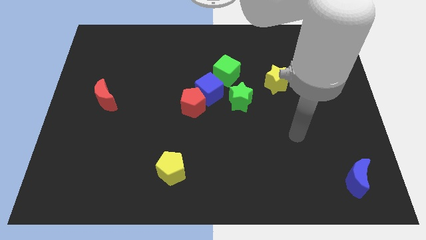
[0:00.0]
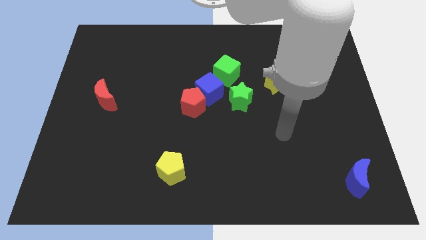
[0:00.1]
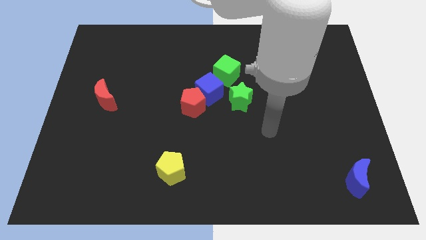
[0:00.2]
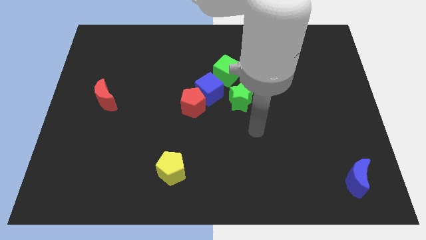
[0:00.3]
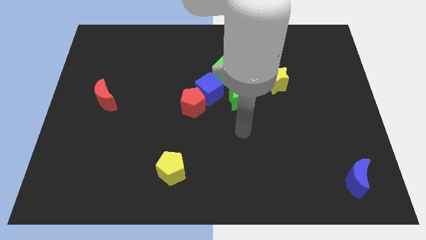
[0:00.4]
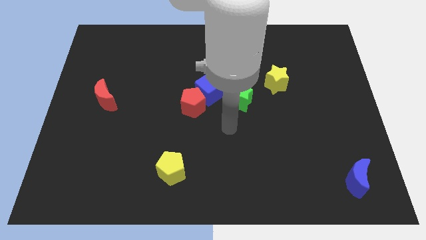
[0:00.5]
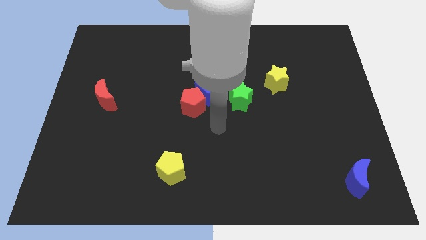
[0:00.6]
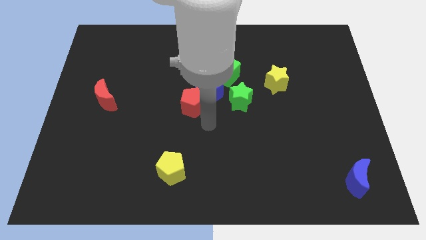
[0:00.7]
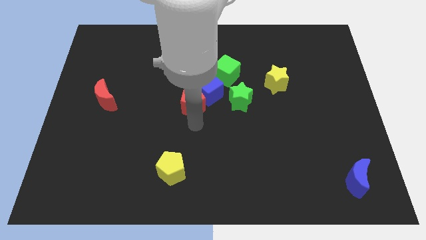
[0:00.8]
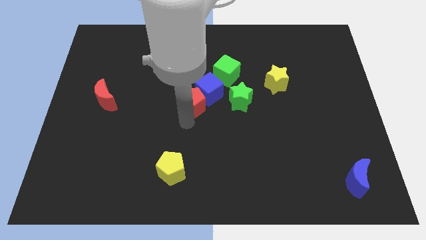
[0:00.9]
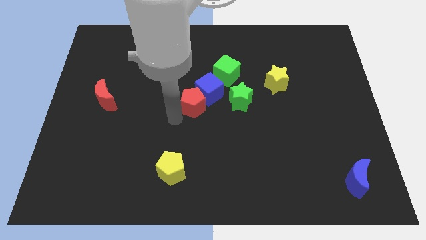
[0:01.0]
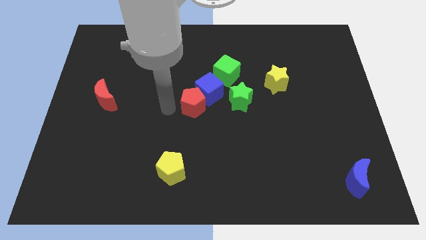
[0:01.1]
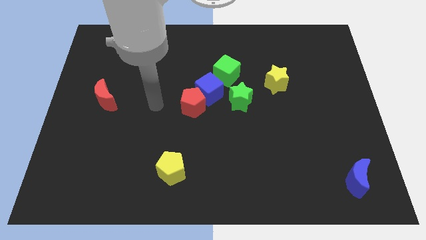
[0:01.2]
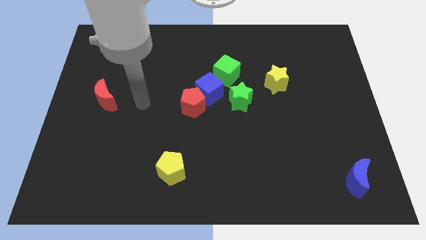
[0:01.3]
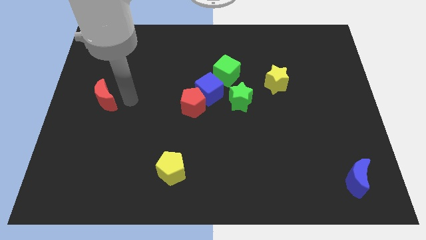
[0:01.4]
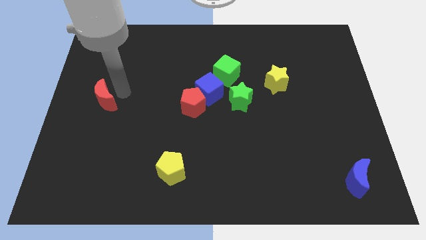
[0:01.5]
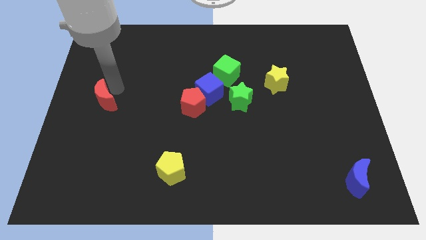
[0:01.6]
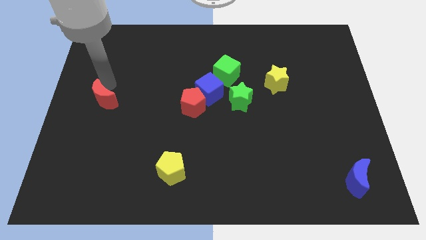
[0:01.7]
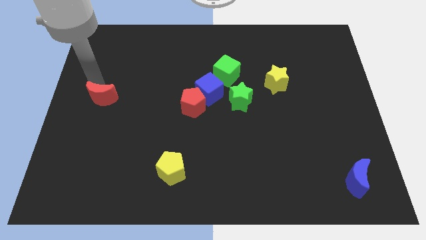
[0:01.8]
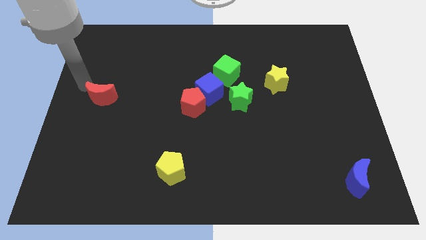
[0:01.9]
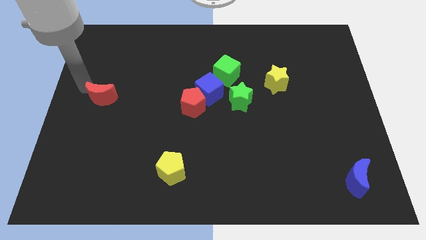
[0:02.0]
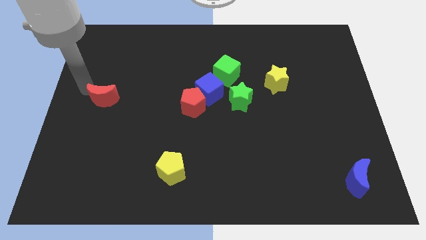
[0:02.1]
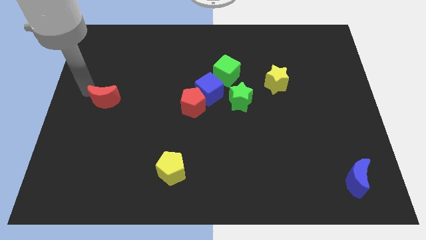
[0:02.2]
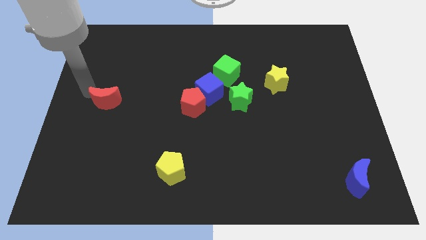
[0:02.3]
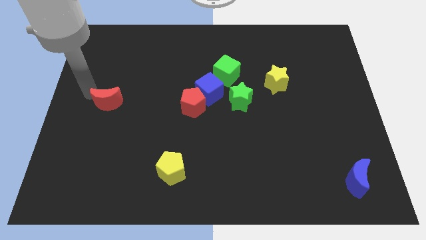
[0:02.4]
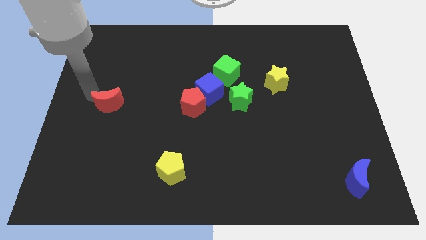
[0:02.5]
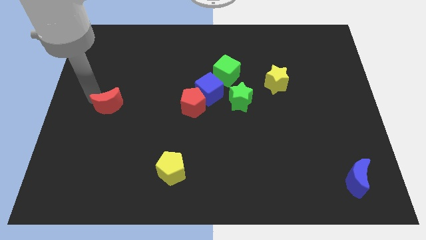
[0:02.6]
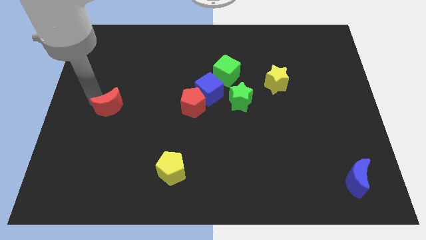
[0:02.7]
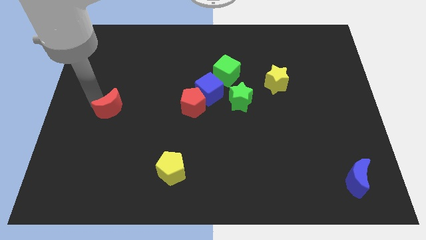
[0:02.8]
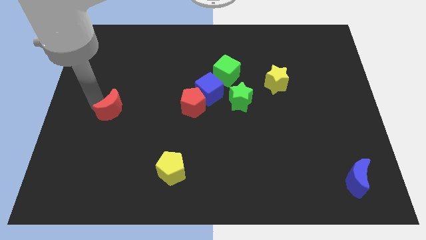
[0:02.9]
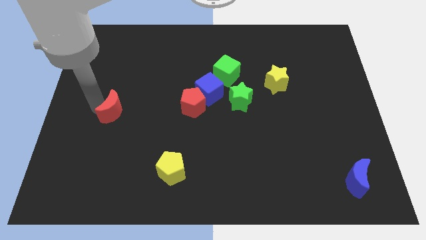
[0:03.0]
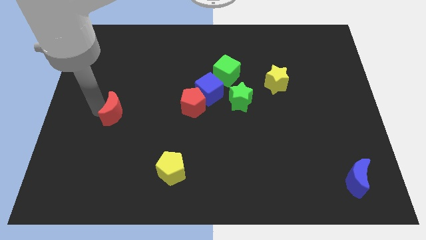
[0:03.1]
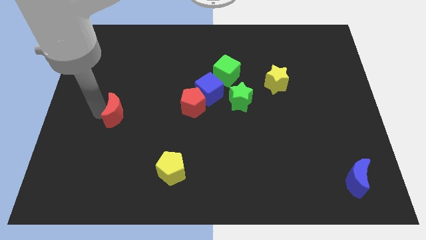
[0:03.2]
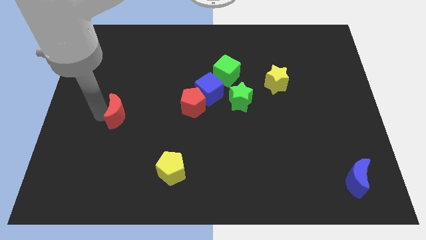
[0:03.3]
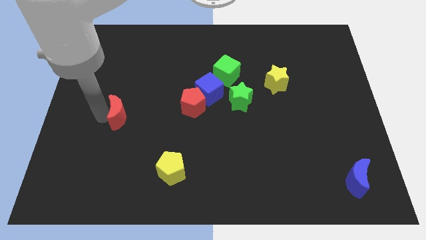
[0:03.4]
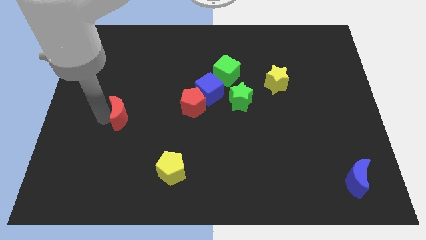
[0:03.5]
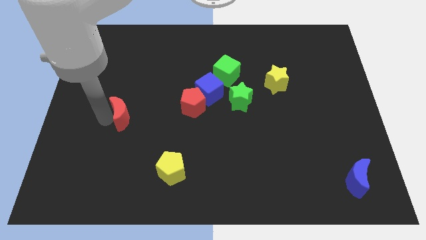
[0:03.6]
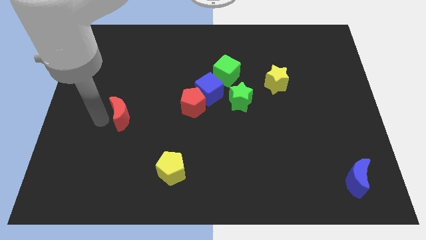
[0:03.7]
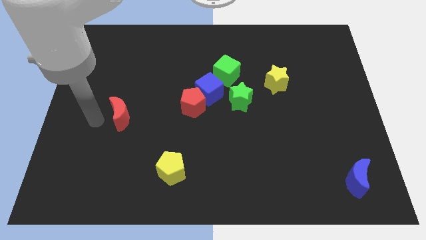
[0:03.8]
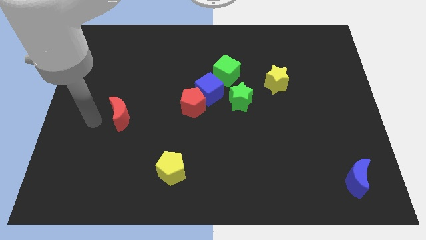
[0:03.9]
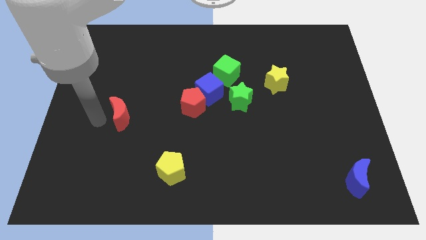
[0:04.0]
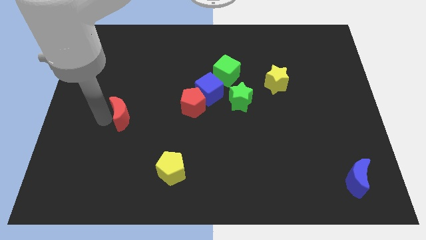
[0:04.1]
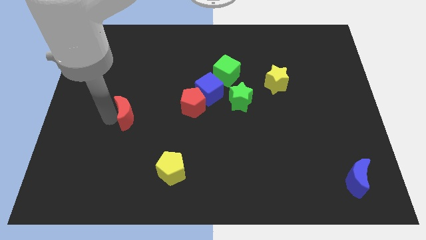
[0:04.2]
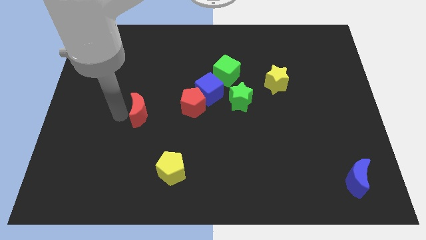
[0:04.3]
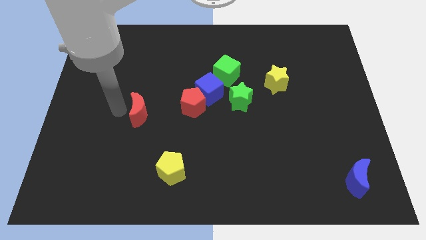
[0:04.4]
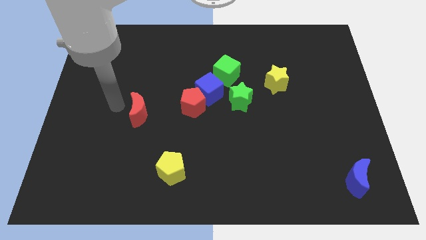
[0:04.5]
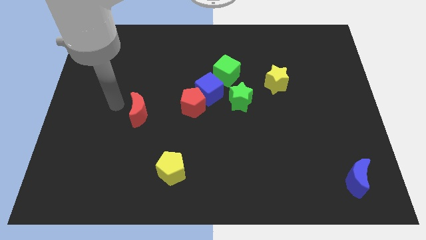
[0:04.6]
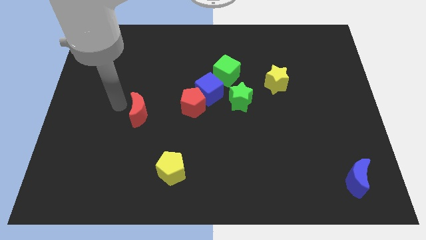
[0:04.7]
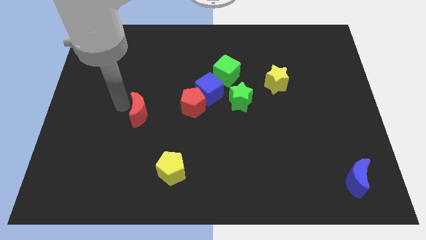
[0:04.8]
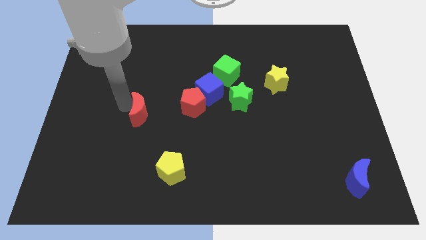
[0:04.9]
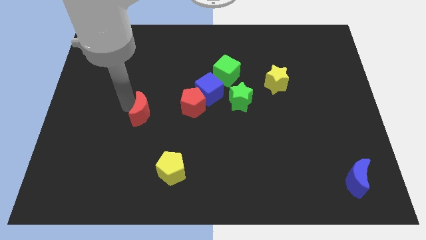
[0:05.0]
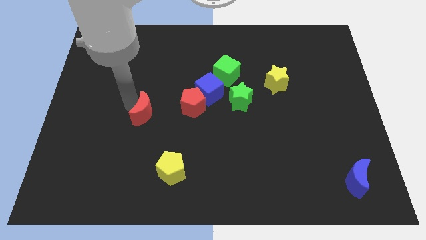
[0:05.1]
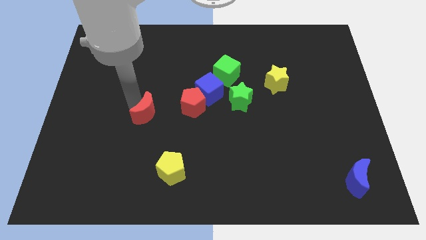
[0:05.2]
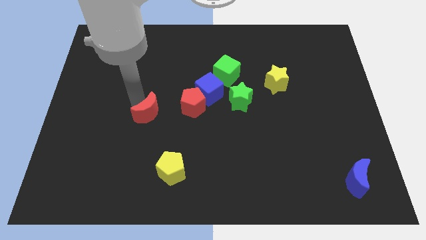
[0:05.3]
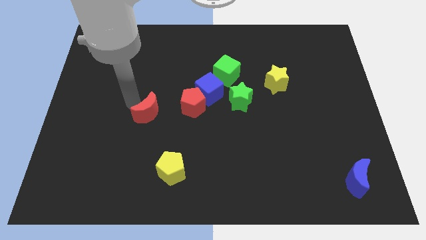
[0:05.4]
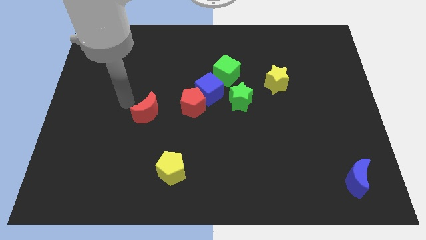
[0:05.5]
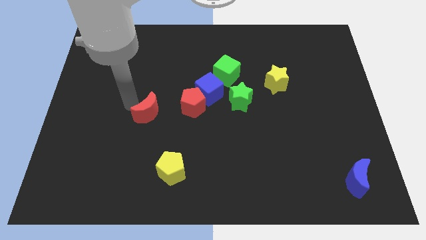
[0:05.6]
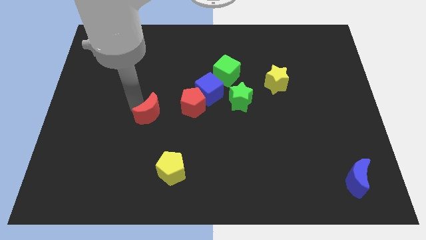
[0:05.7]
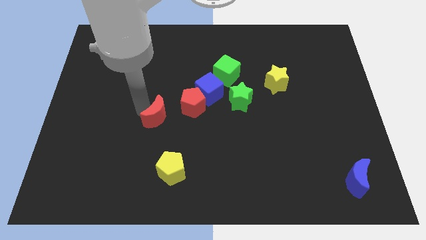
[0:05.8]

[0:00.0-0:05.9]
move the red moon diagonally down and to the left of the red pentagon

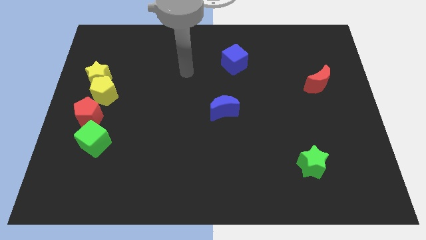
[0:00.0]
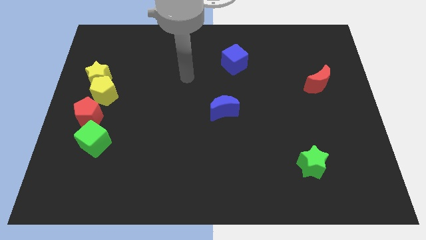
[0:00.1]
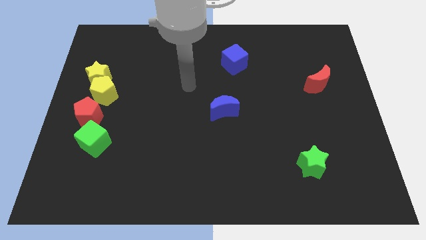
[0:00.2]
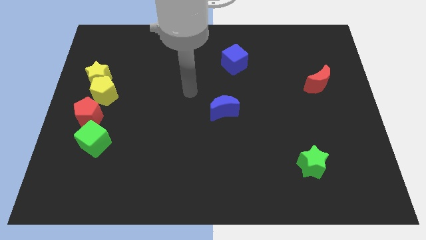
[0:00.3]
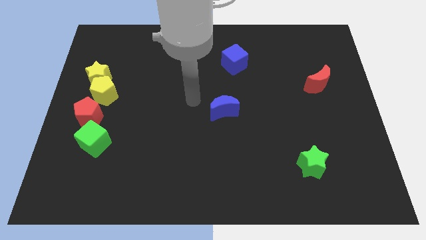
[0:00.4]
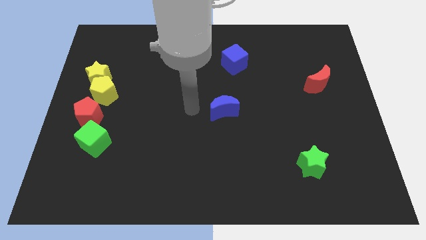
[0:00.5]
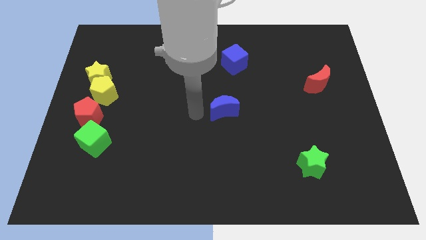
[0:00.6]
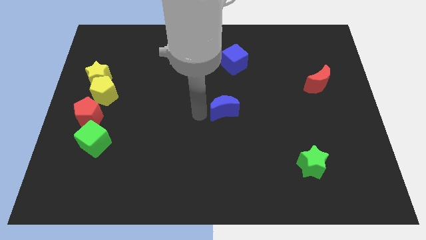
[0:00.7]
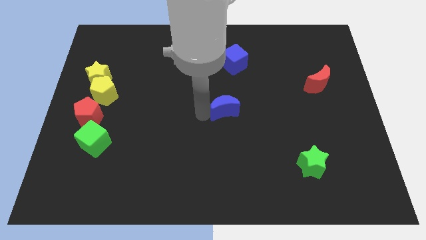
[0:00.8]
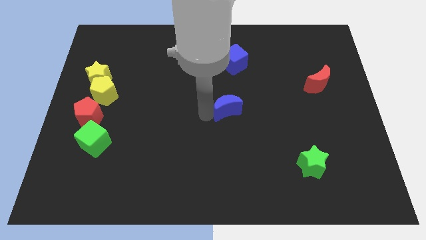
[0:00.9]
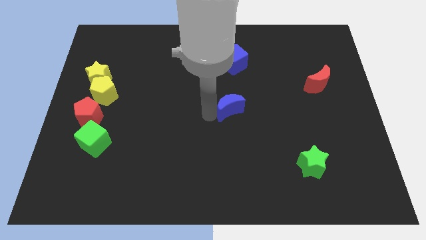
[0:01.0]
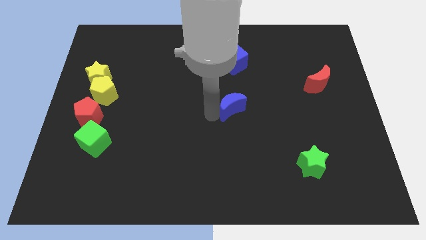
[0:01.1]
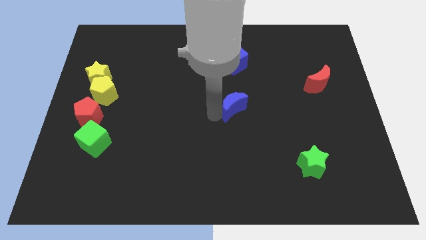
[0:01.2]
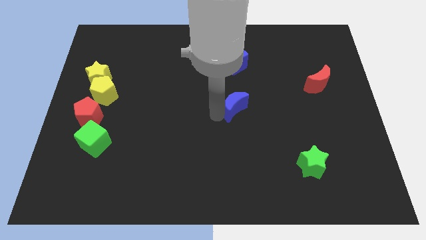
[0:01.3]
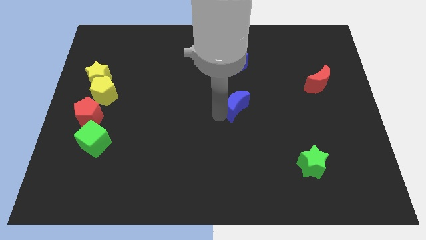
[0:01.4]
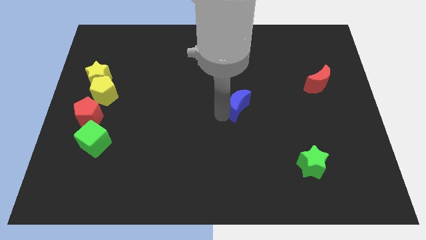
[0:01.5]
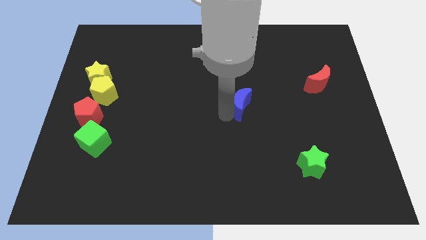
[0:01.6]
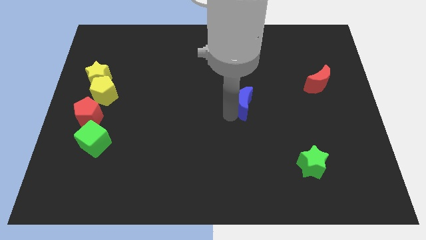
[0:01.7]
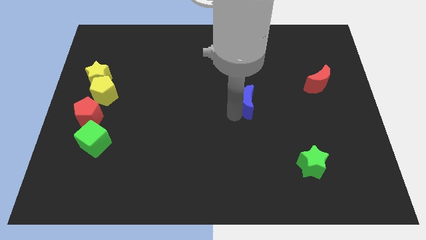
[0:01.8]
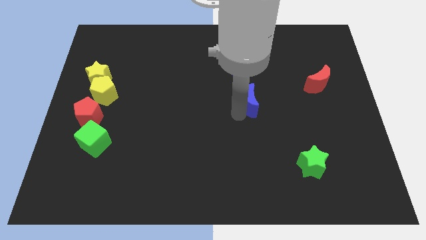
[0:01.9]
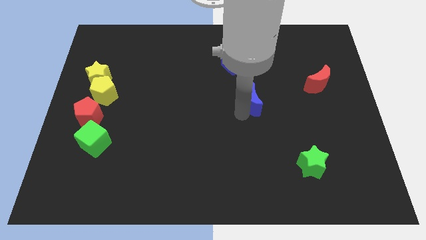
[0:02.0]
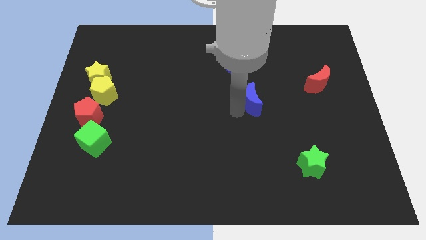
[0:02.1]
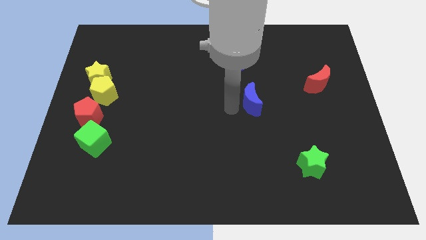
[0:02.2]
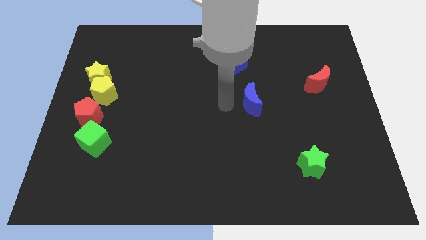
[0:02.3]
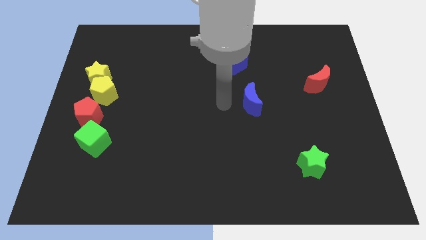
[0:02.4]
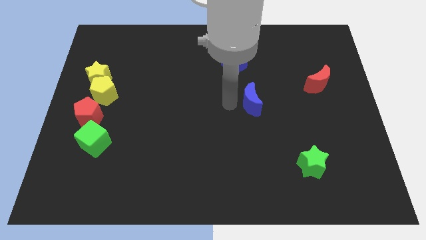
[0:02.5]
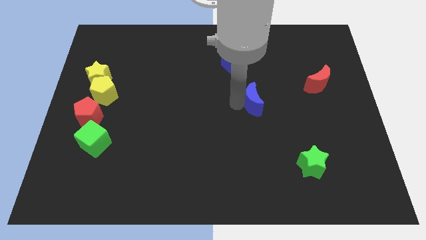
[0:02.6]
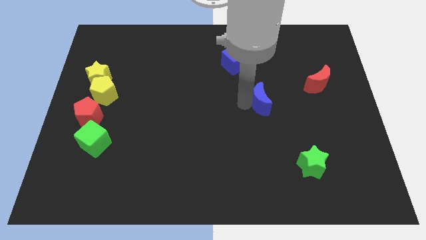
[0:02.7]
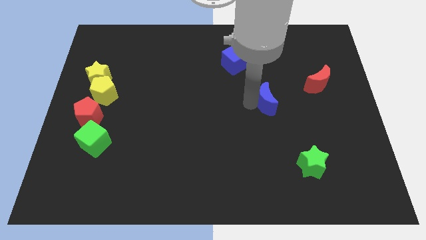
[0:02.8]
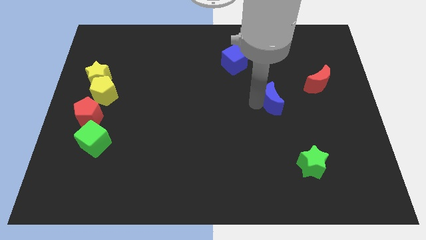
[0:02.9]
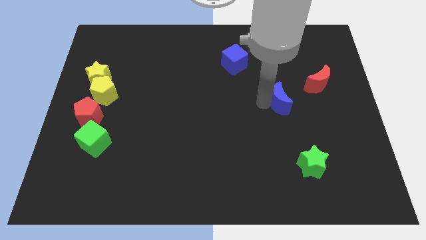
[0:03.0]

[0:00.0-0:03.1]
slide the blue moon to the bottom left of the red moon
